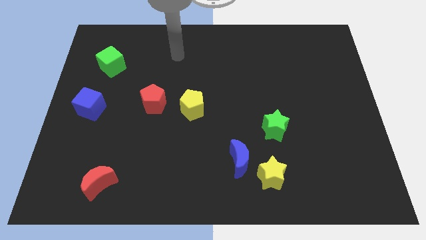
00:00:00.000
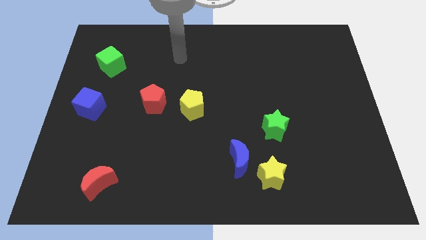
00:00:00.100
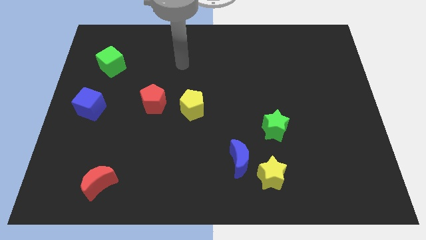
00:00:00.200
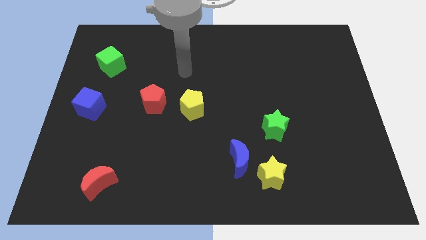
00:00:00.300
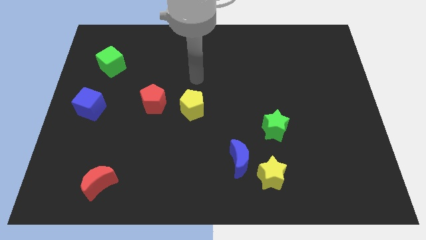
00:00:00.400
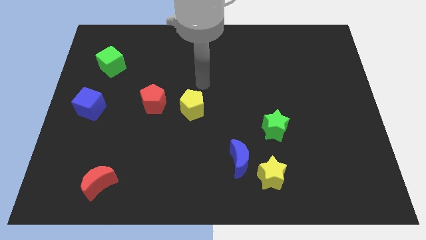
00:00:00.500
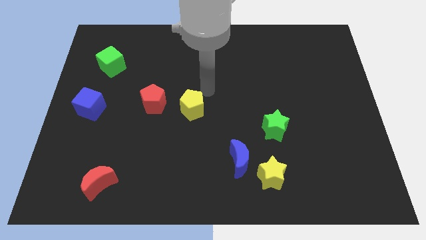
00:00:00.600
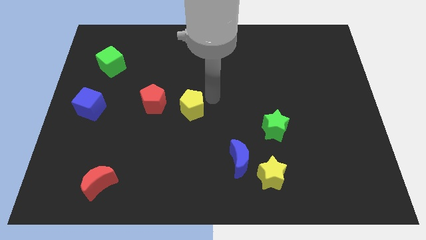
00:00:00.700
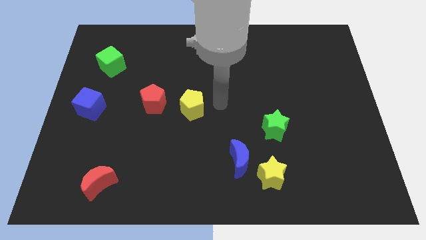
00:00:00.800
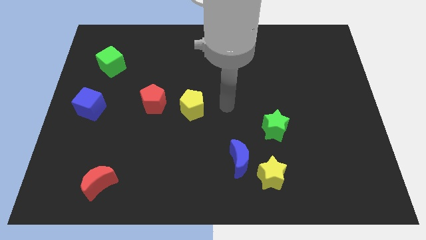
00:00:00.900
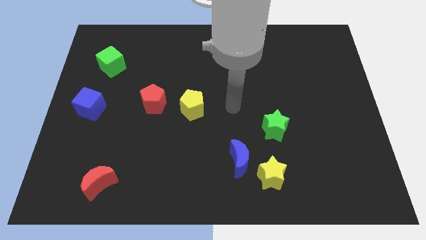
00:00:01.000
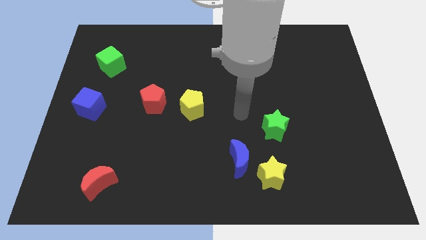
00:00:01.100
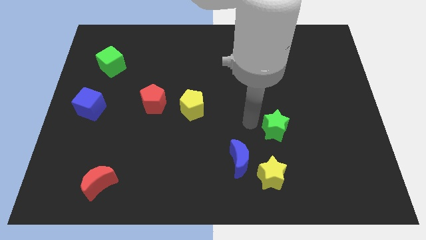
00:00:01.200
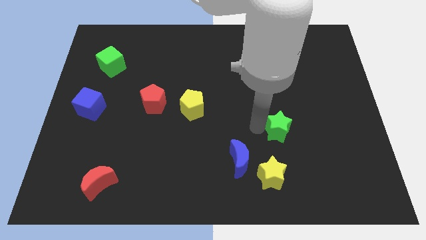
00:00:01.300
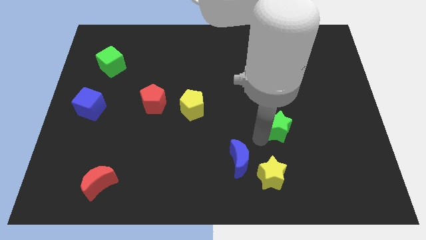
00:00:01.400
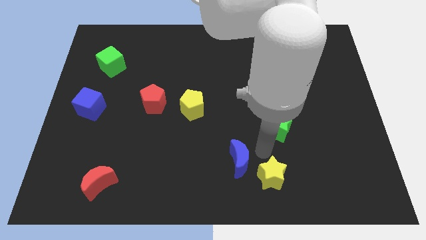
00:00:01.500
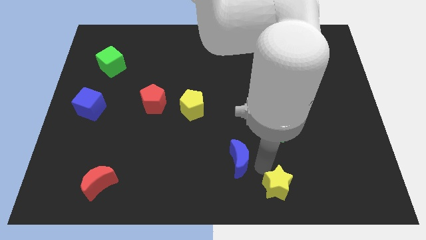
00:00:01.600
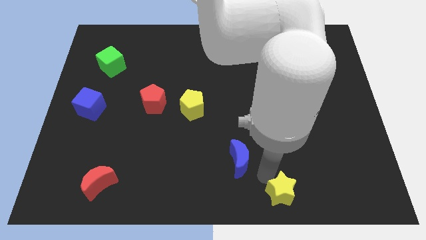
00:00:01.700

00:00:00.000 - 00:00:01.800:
move the blue moon away from the yellow star

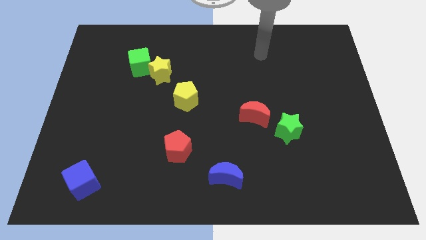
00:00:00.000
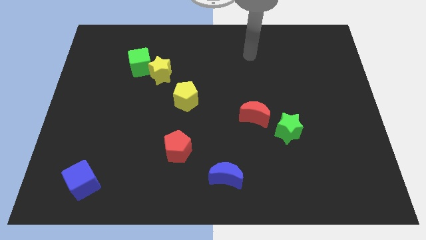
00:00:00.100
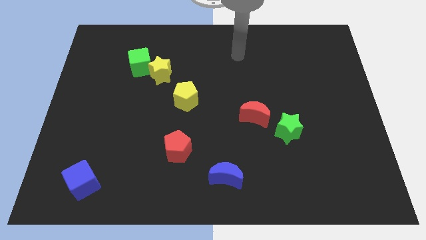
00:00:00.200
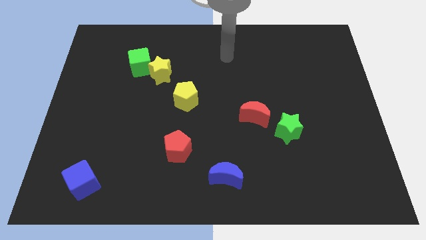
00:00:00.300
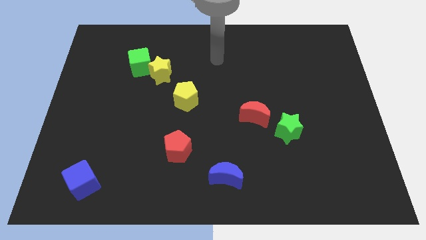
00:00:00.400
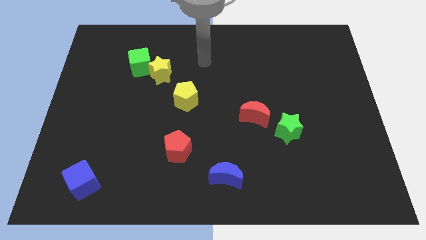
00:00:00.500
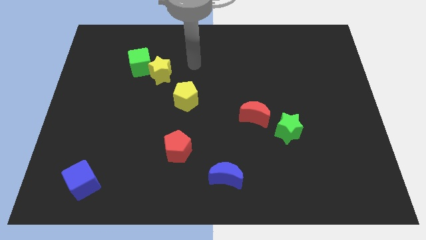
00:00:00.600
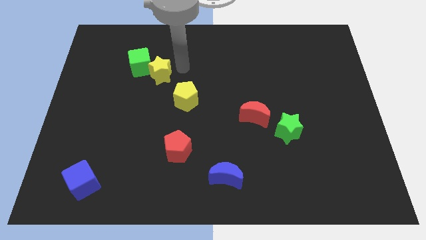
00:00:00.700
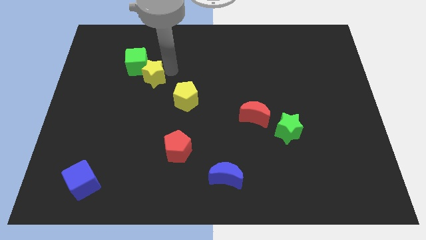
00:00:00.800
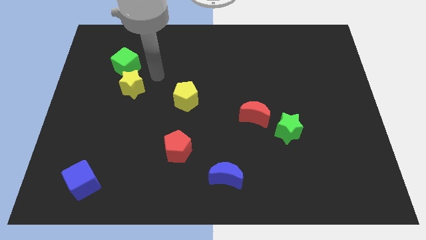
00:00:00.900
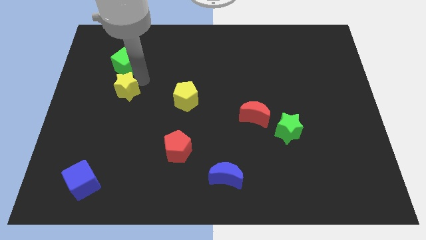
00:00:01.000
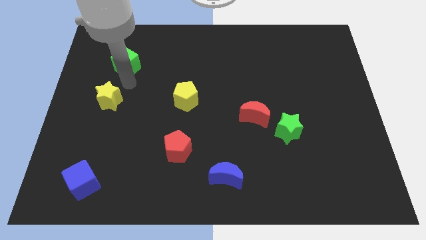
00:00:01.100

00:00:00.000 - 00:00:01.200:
separate the green cube from the yellow star

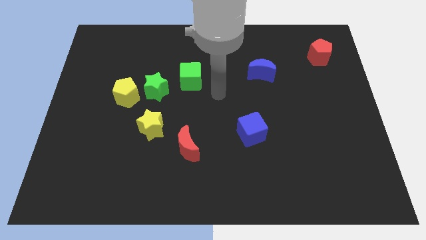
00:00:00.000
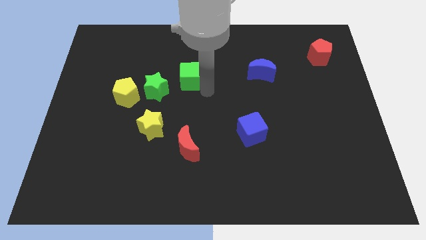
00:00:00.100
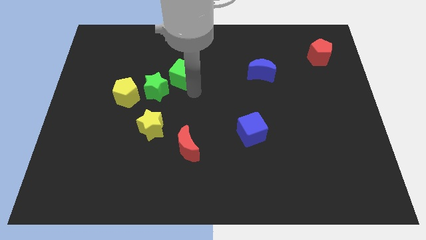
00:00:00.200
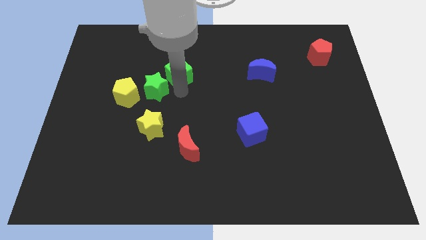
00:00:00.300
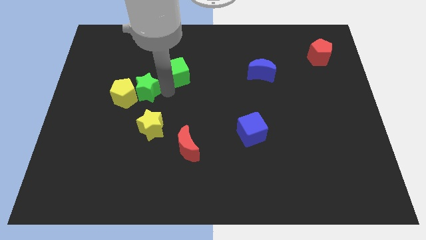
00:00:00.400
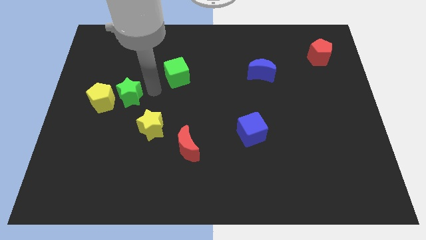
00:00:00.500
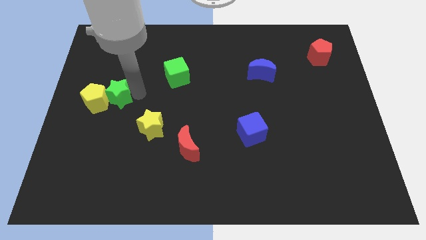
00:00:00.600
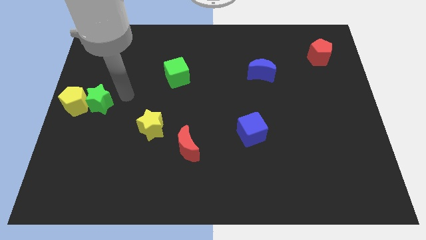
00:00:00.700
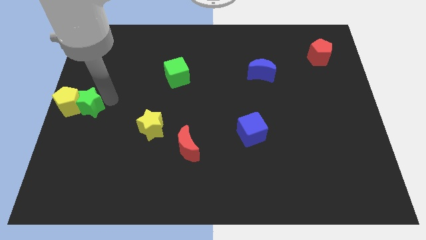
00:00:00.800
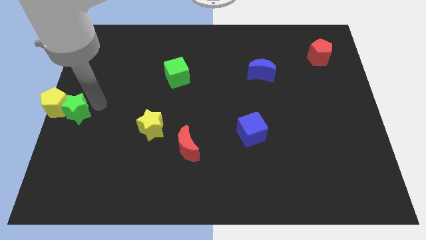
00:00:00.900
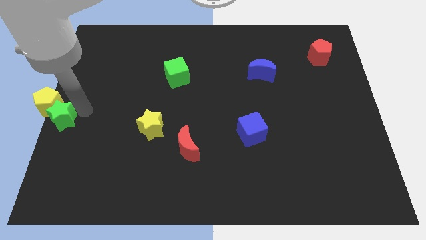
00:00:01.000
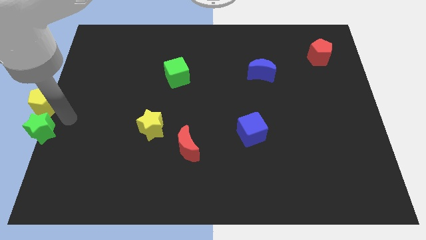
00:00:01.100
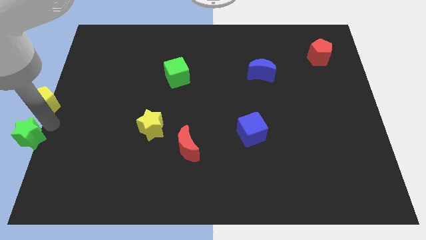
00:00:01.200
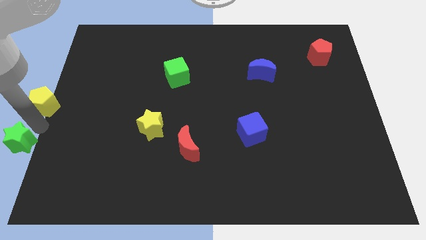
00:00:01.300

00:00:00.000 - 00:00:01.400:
separate the yellow pentagon from the green star

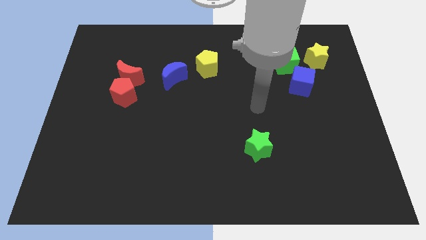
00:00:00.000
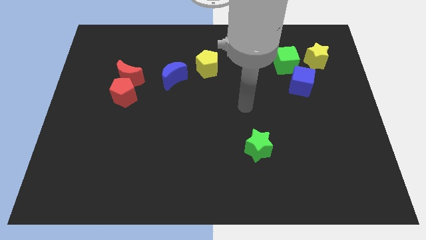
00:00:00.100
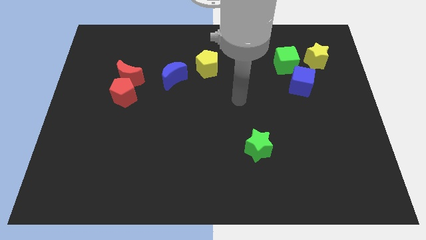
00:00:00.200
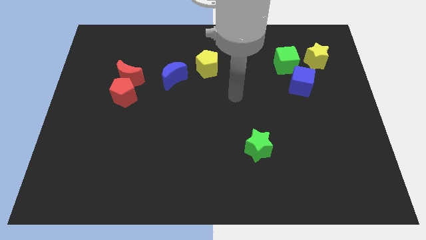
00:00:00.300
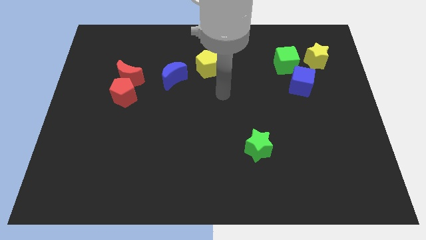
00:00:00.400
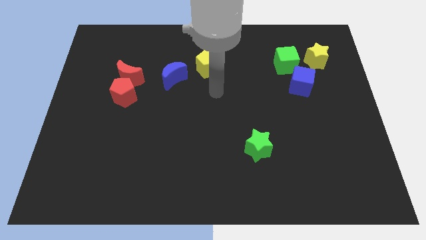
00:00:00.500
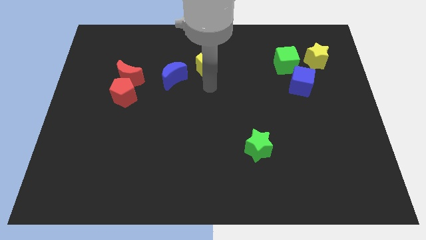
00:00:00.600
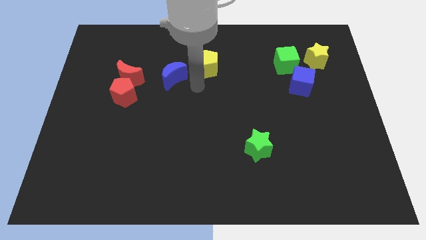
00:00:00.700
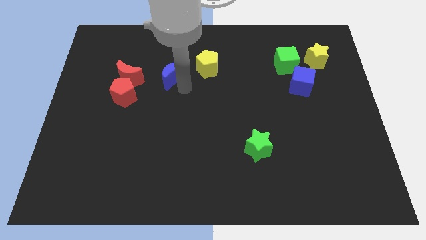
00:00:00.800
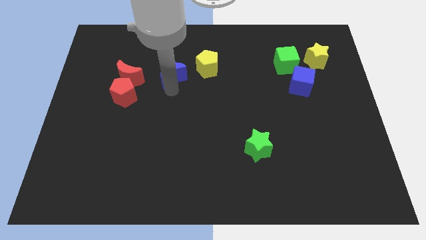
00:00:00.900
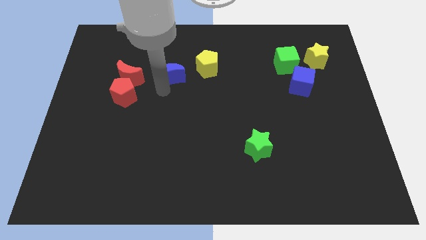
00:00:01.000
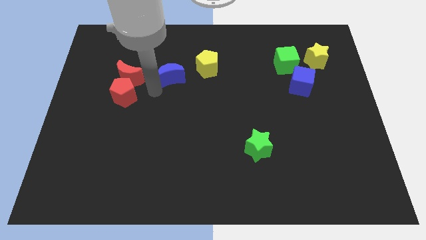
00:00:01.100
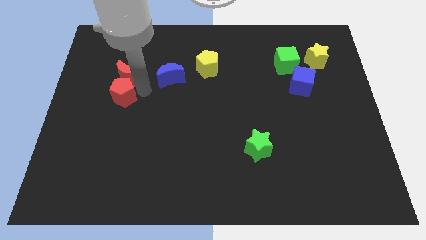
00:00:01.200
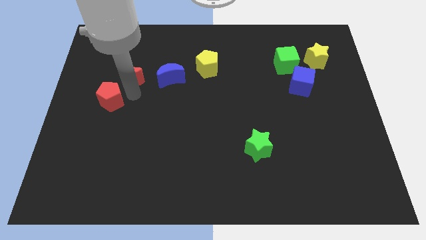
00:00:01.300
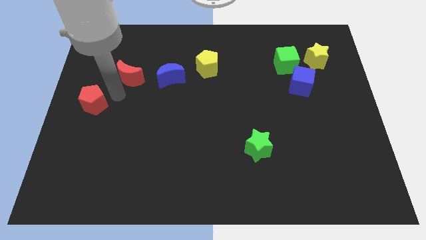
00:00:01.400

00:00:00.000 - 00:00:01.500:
pull the red moon apart from the red pentagon

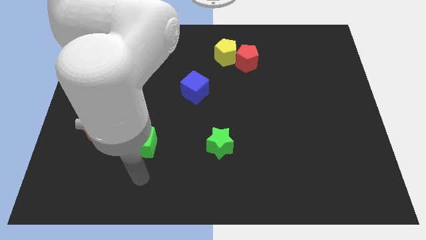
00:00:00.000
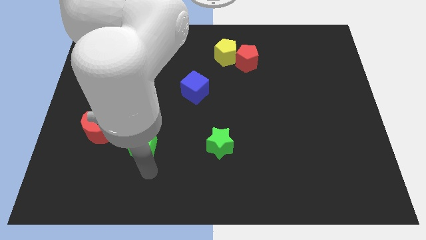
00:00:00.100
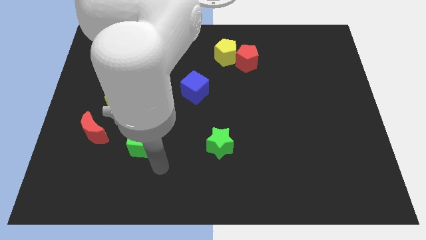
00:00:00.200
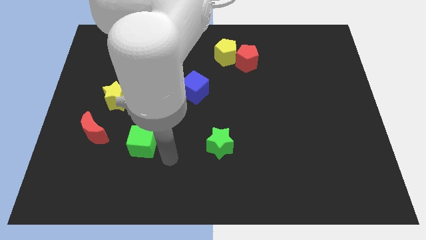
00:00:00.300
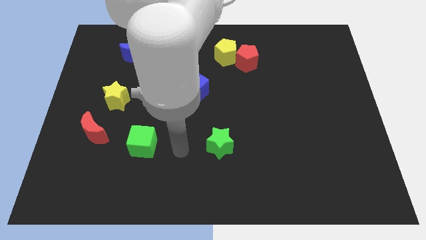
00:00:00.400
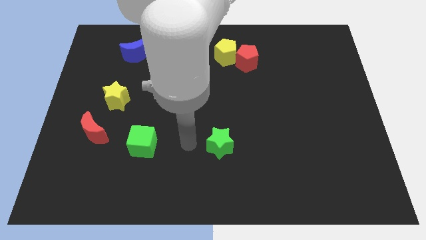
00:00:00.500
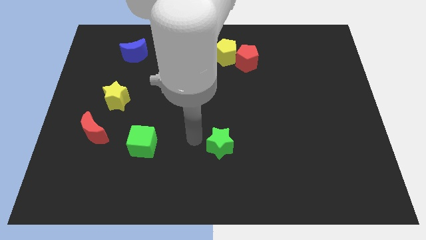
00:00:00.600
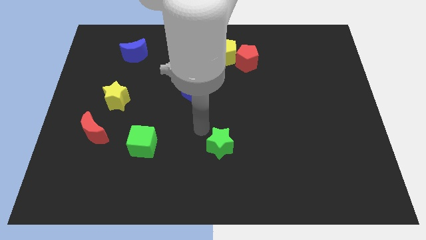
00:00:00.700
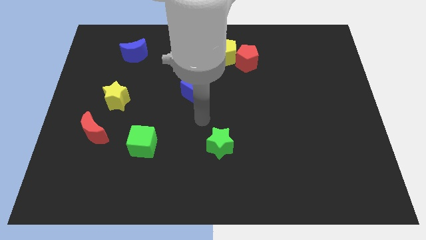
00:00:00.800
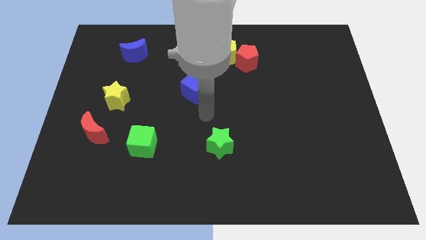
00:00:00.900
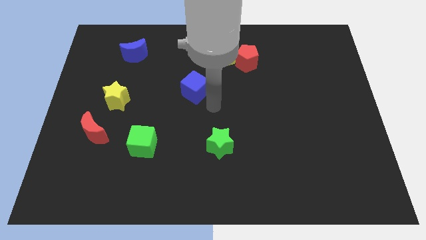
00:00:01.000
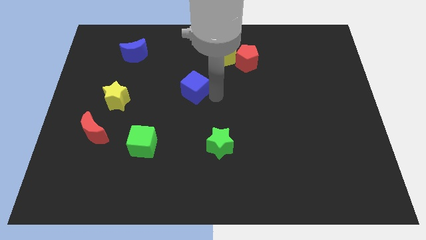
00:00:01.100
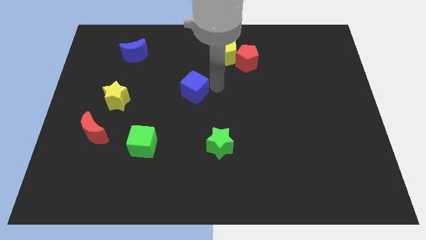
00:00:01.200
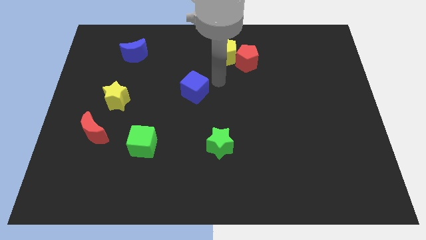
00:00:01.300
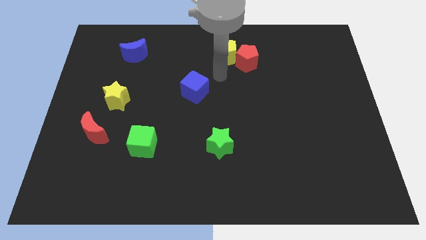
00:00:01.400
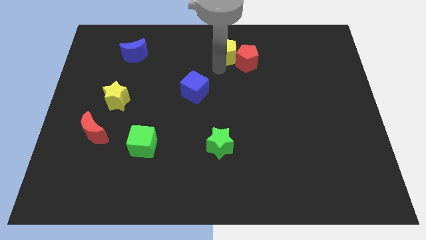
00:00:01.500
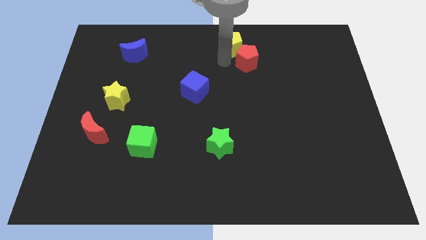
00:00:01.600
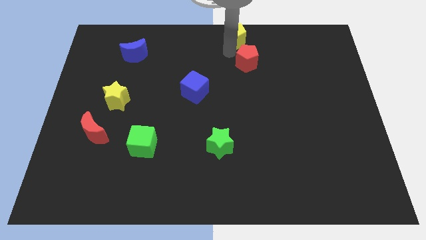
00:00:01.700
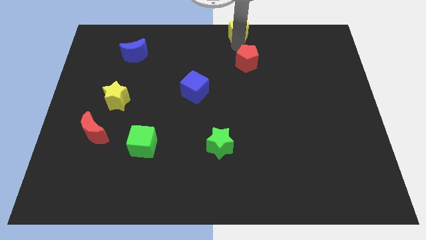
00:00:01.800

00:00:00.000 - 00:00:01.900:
separate the red pentagon from the yellow pentagon

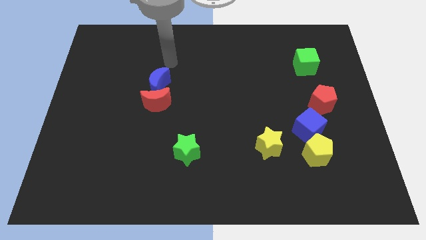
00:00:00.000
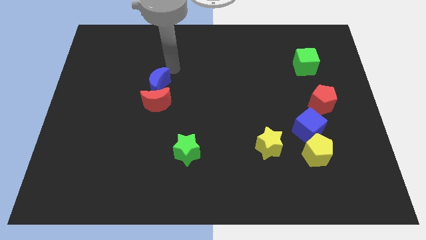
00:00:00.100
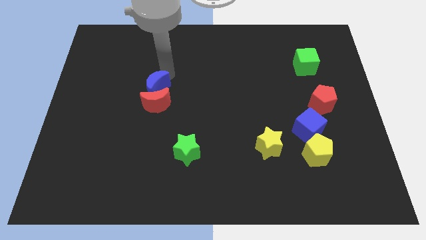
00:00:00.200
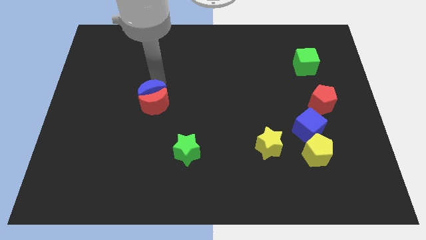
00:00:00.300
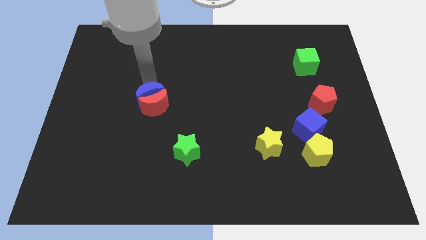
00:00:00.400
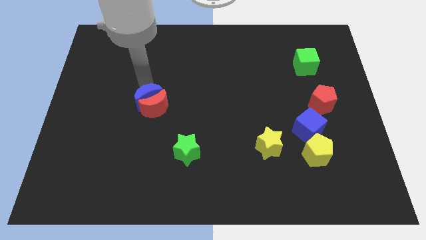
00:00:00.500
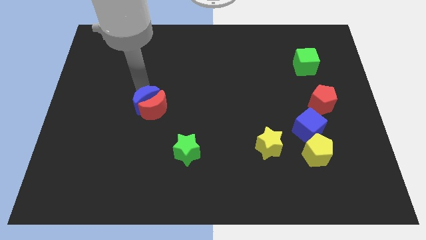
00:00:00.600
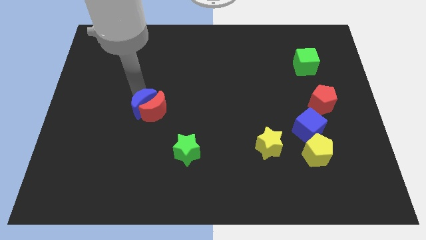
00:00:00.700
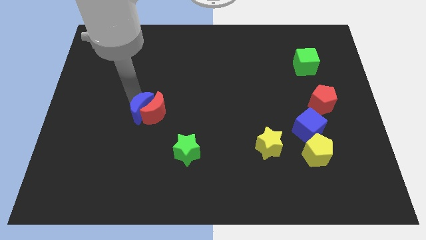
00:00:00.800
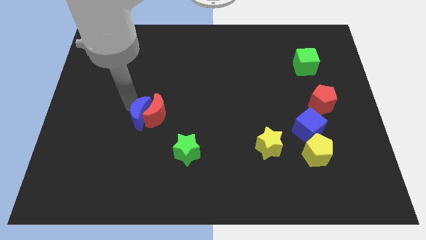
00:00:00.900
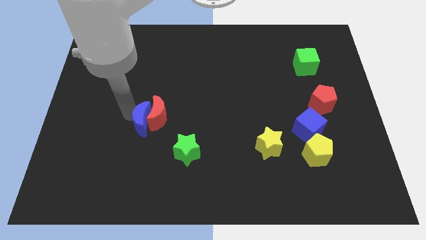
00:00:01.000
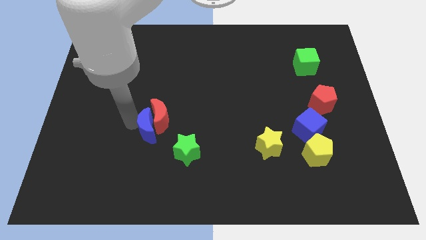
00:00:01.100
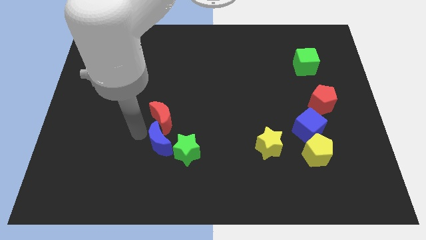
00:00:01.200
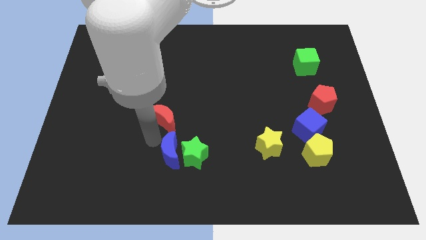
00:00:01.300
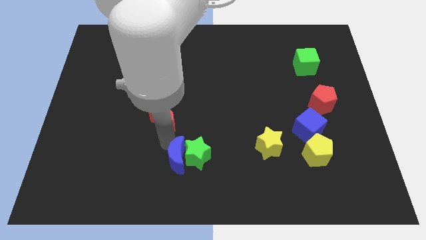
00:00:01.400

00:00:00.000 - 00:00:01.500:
pull the red moon apart from the blue moon
